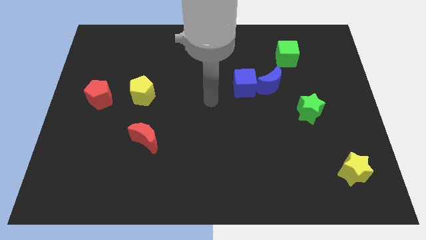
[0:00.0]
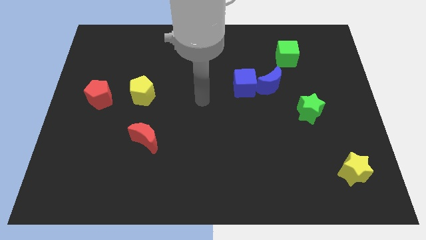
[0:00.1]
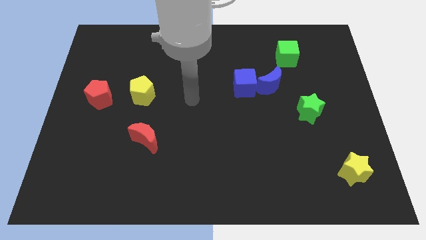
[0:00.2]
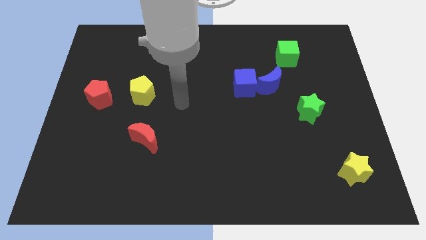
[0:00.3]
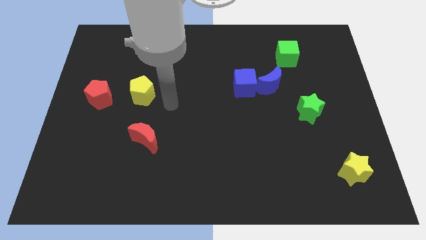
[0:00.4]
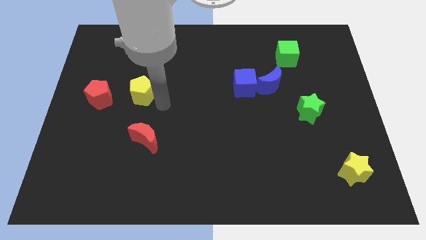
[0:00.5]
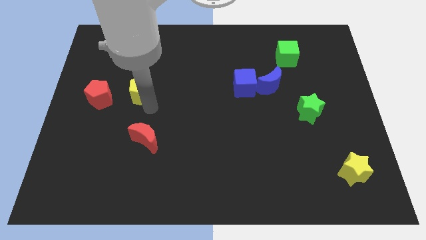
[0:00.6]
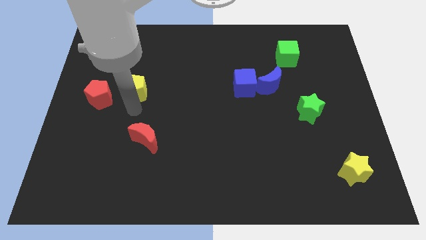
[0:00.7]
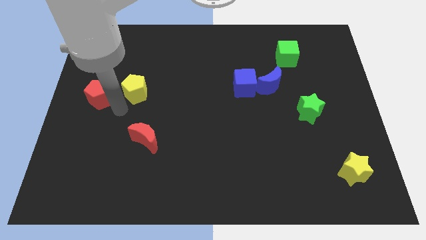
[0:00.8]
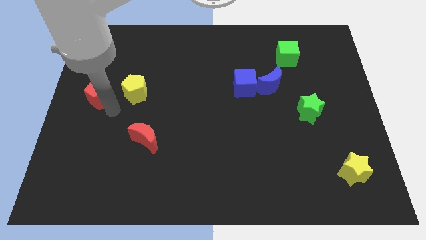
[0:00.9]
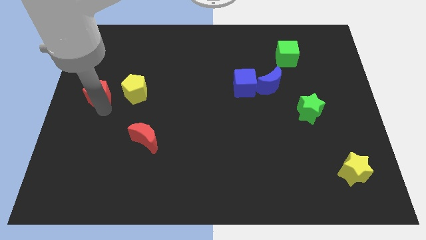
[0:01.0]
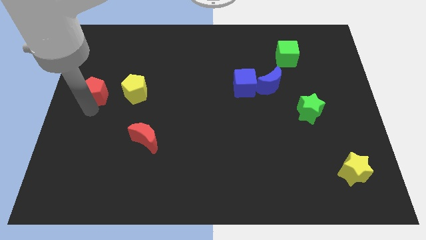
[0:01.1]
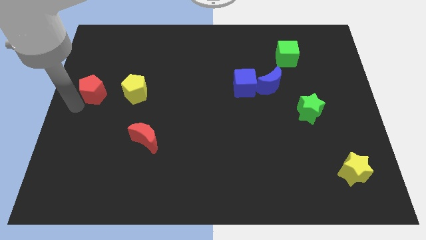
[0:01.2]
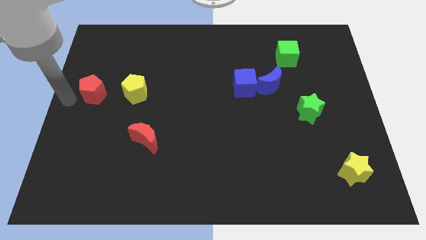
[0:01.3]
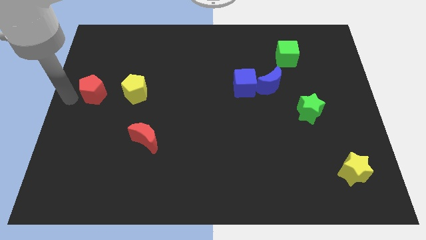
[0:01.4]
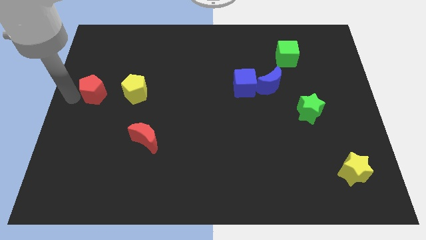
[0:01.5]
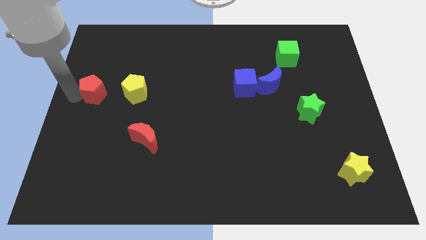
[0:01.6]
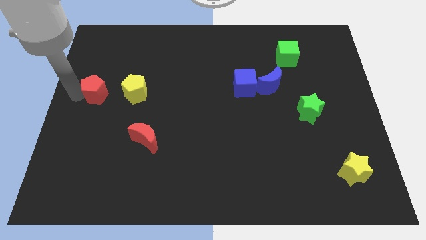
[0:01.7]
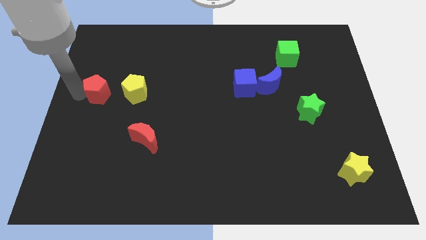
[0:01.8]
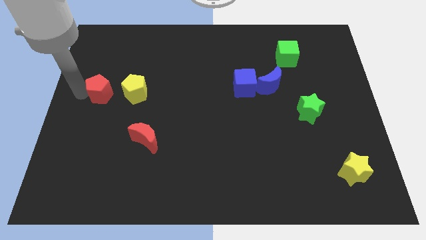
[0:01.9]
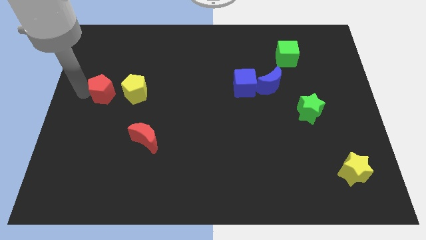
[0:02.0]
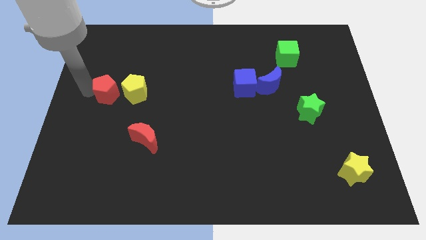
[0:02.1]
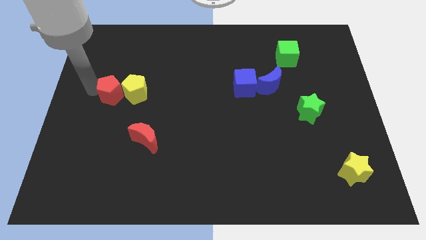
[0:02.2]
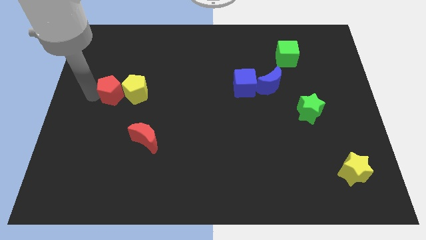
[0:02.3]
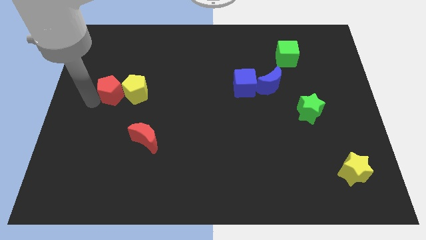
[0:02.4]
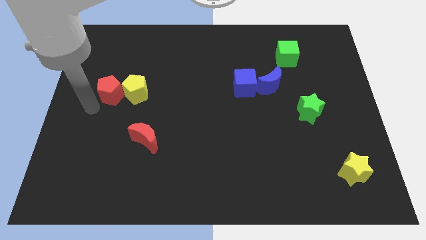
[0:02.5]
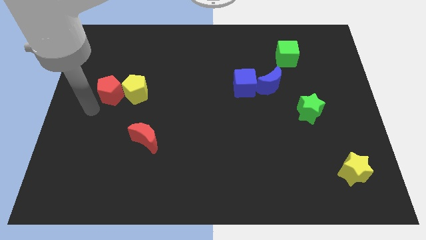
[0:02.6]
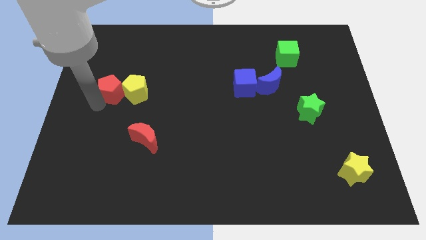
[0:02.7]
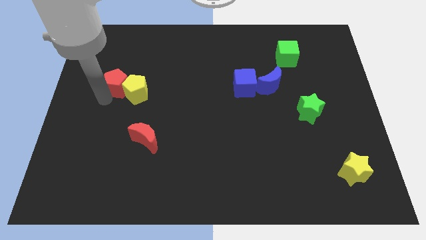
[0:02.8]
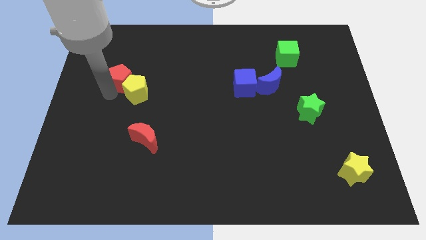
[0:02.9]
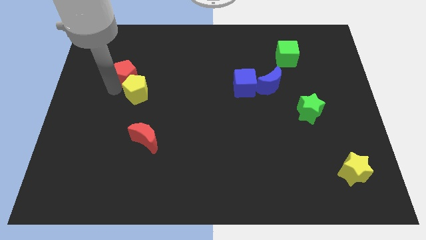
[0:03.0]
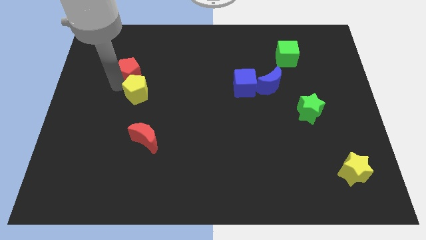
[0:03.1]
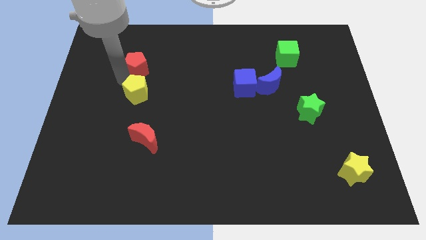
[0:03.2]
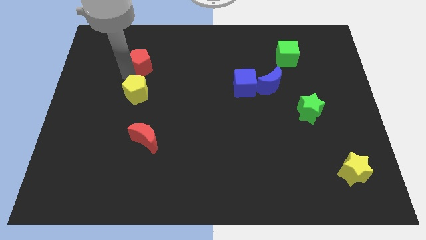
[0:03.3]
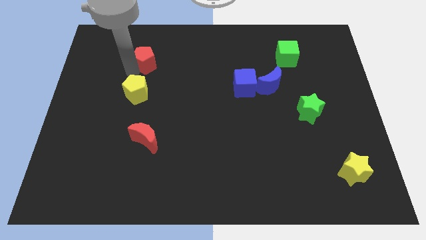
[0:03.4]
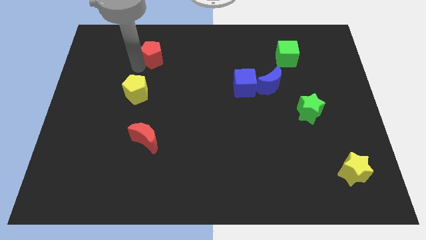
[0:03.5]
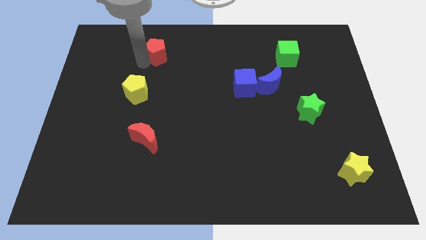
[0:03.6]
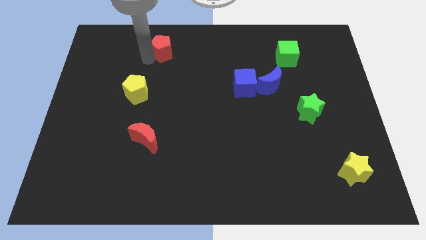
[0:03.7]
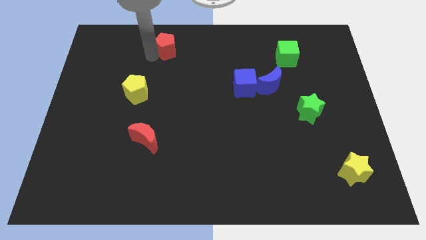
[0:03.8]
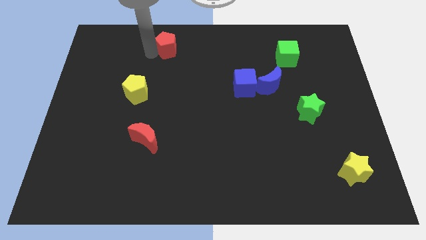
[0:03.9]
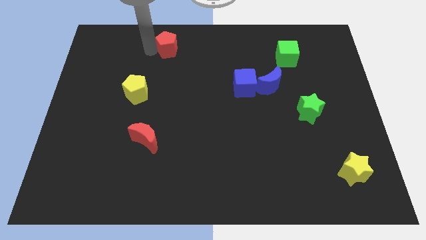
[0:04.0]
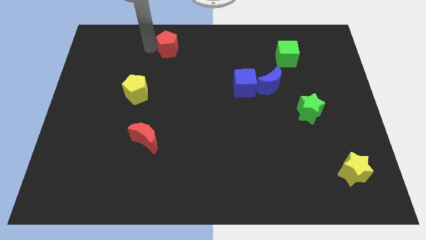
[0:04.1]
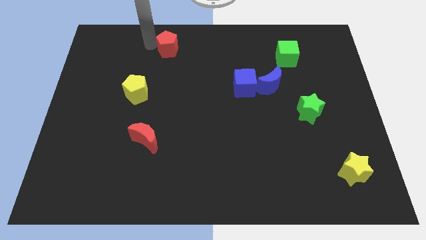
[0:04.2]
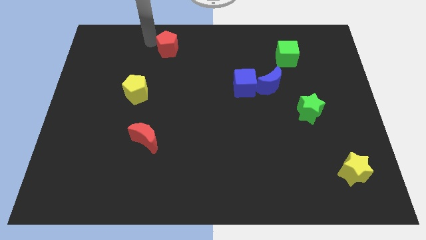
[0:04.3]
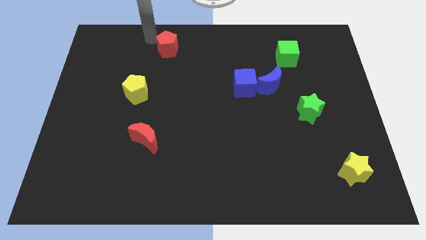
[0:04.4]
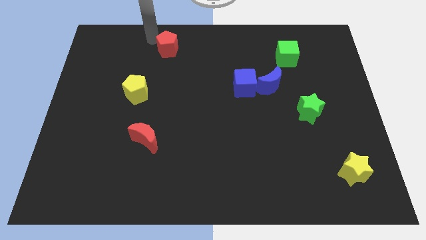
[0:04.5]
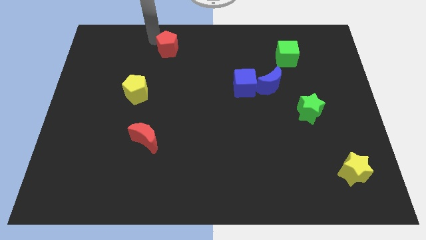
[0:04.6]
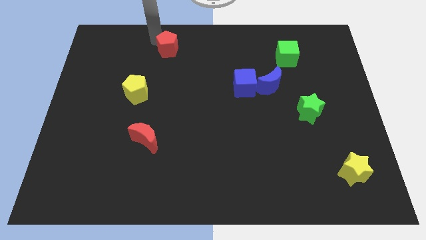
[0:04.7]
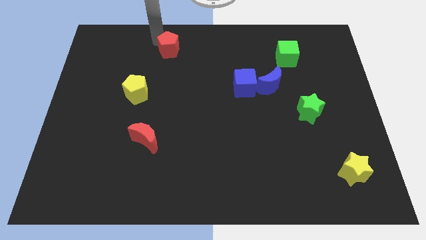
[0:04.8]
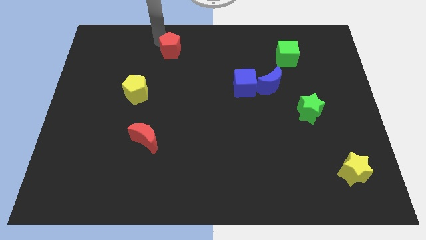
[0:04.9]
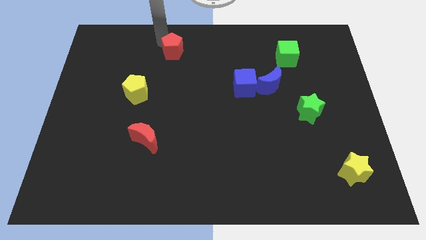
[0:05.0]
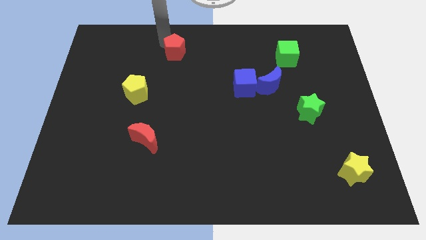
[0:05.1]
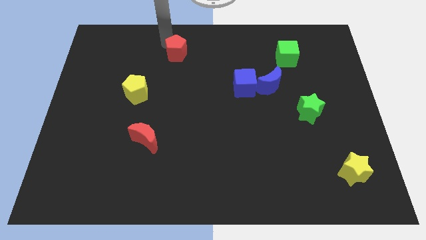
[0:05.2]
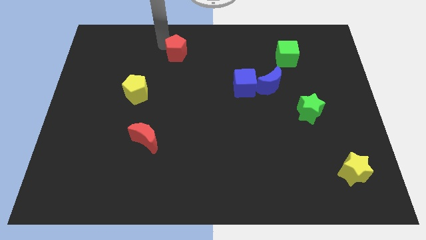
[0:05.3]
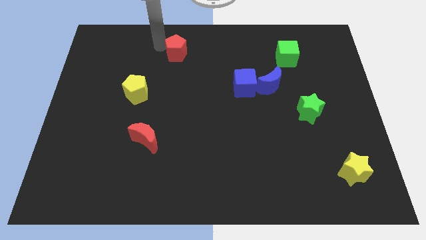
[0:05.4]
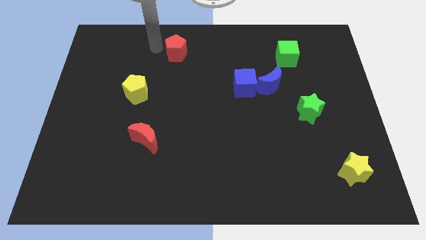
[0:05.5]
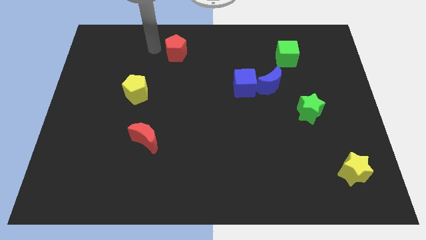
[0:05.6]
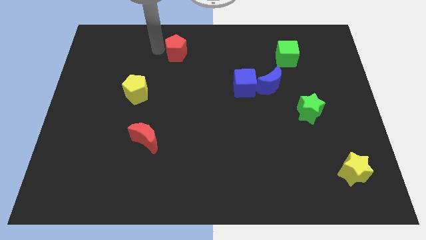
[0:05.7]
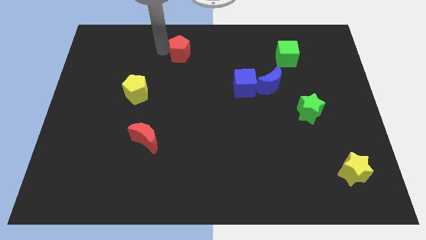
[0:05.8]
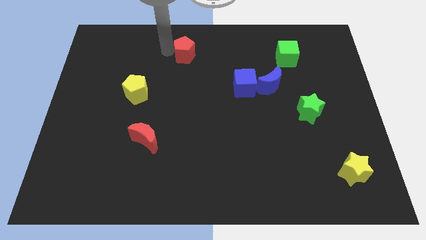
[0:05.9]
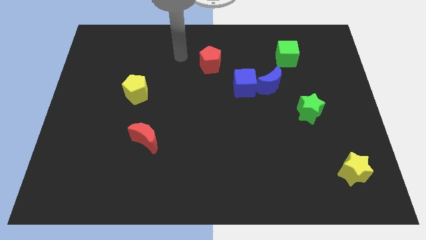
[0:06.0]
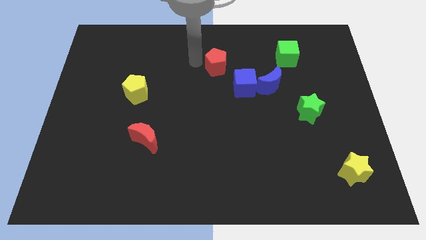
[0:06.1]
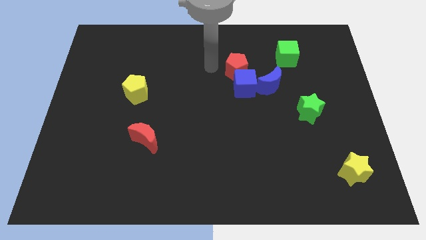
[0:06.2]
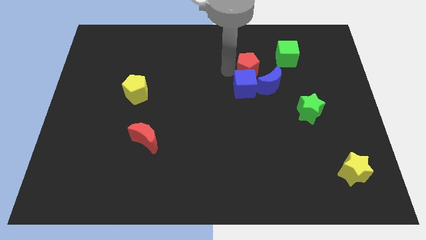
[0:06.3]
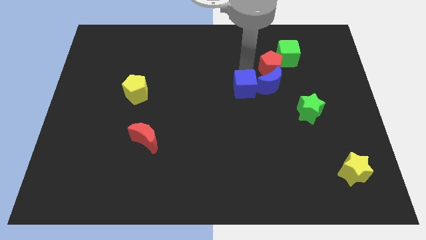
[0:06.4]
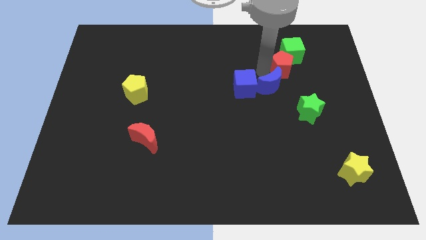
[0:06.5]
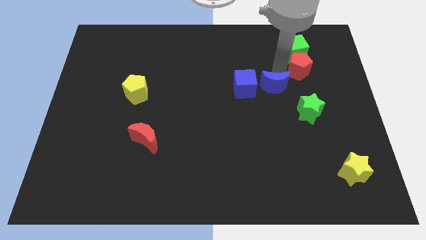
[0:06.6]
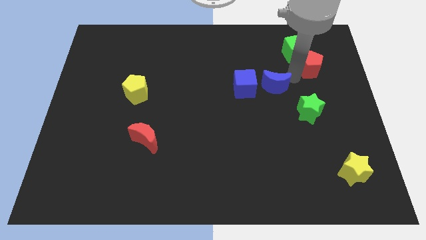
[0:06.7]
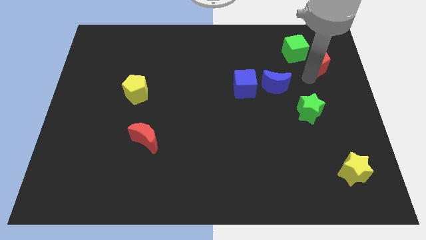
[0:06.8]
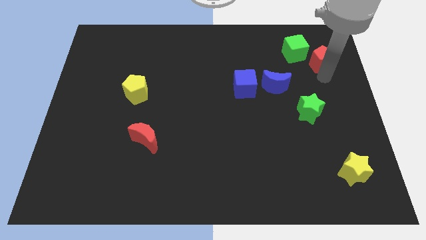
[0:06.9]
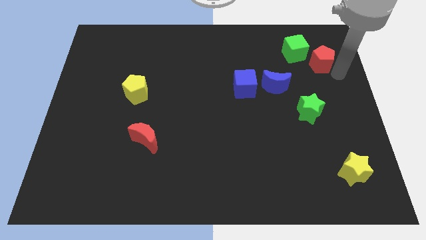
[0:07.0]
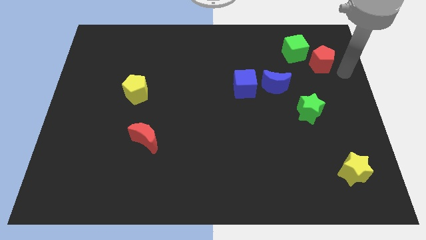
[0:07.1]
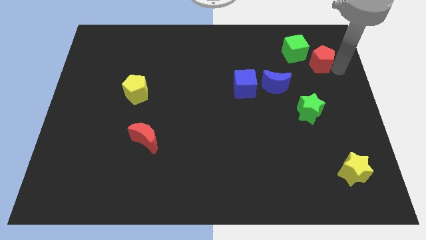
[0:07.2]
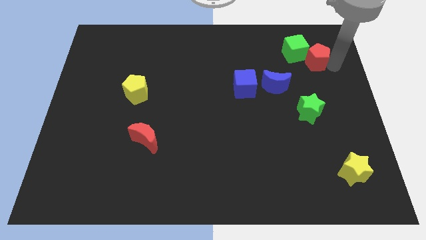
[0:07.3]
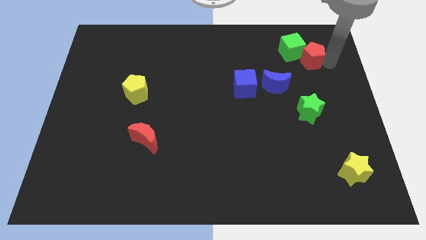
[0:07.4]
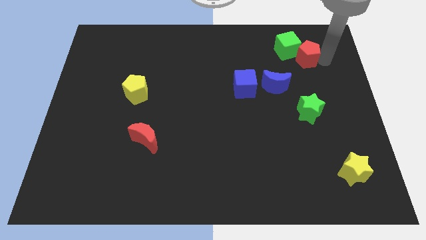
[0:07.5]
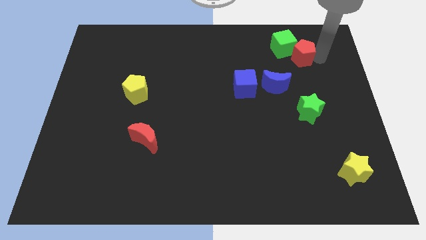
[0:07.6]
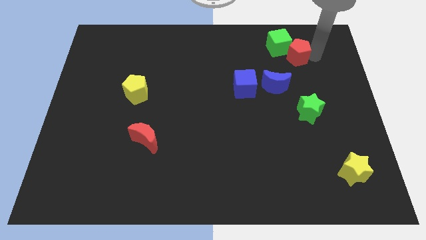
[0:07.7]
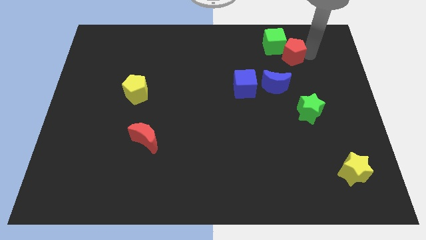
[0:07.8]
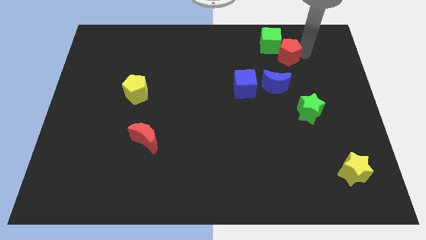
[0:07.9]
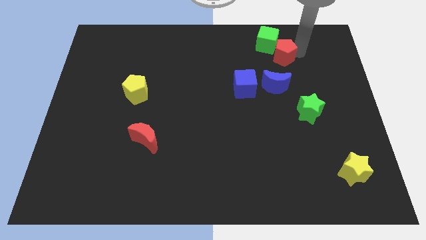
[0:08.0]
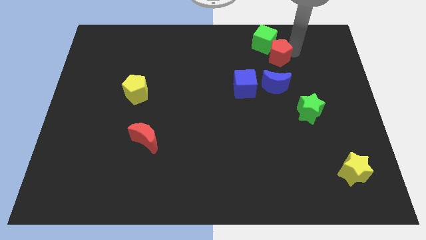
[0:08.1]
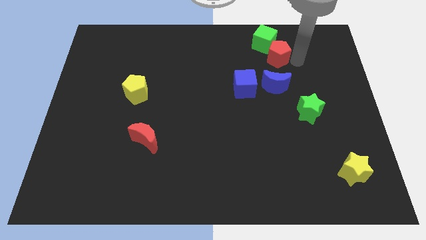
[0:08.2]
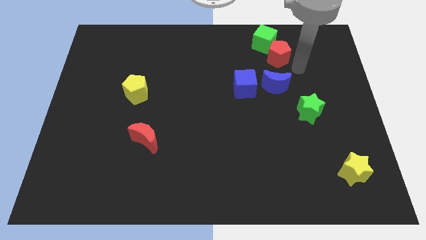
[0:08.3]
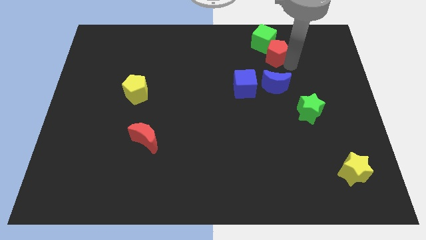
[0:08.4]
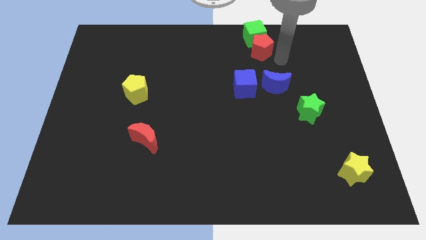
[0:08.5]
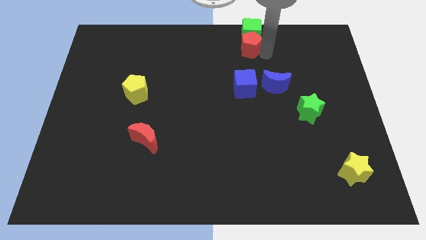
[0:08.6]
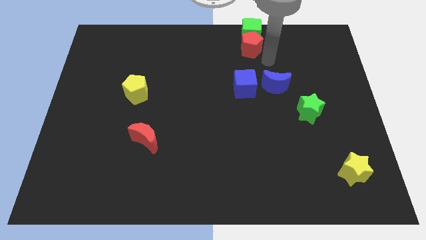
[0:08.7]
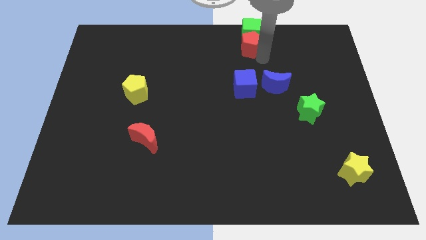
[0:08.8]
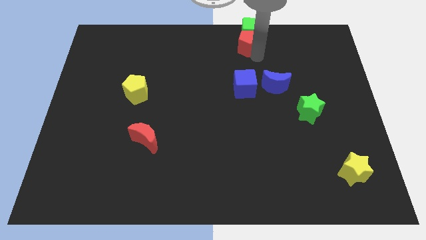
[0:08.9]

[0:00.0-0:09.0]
slide the red pentagon to the top side
